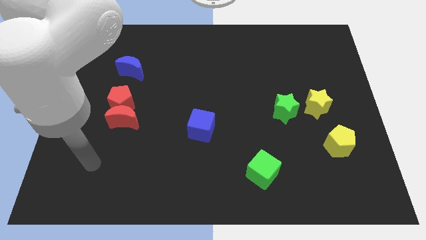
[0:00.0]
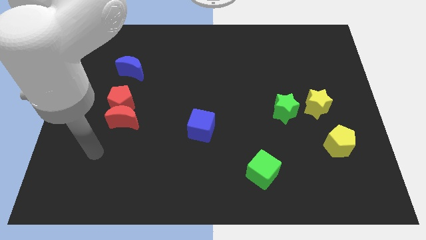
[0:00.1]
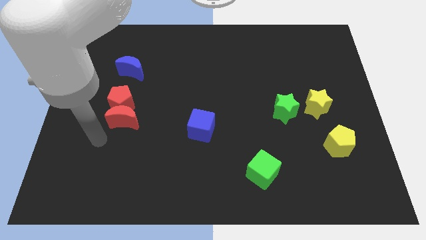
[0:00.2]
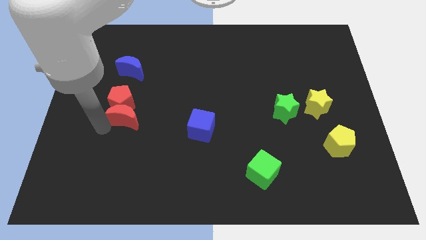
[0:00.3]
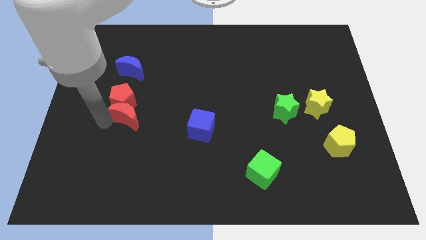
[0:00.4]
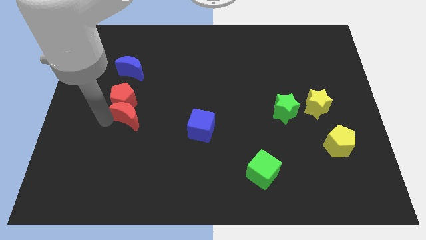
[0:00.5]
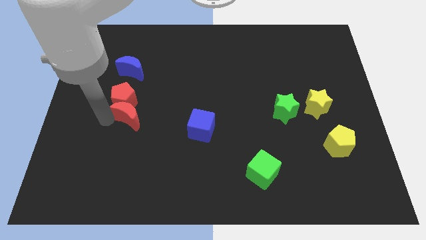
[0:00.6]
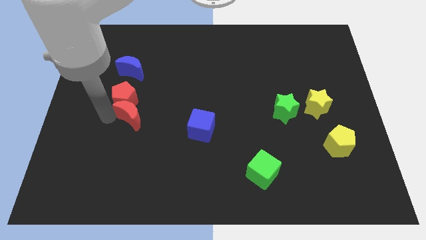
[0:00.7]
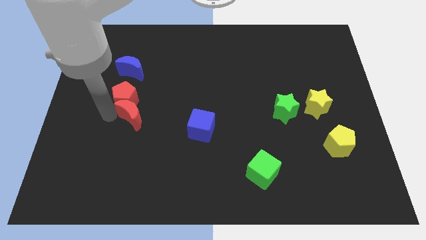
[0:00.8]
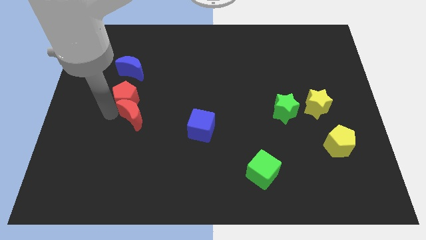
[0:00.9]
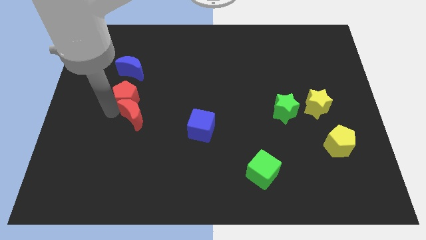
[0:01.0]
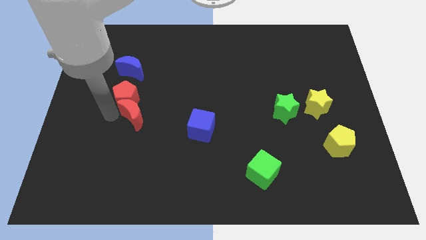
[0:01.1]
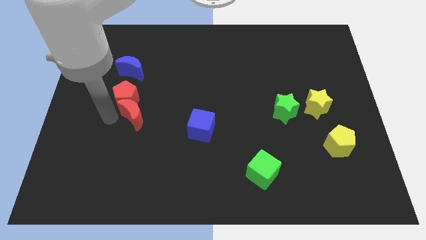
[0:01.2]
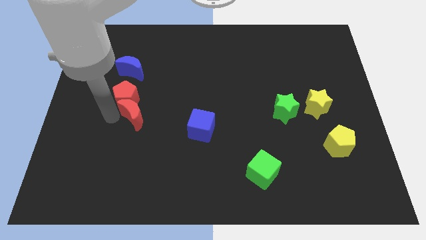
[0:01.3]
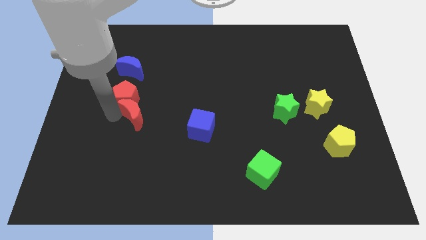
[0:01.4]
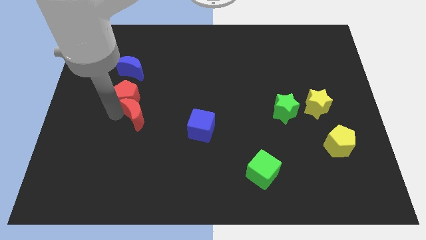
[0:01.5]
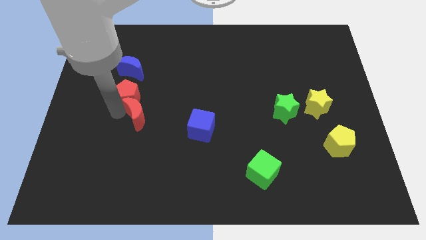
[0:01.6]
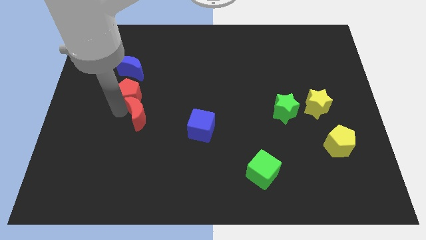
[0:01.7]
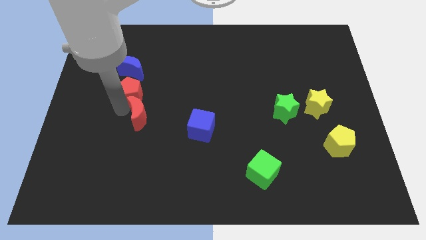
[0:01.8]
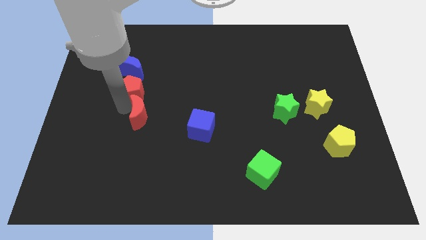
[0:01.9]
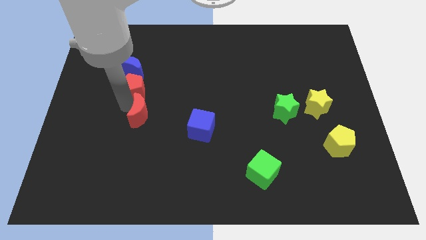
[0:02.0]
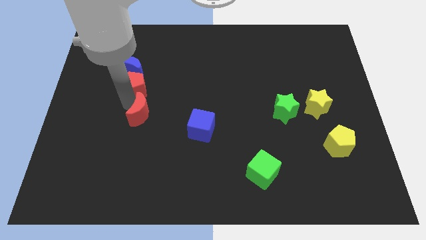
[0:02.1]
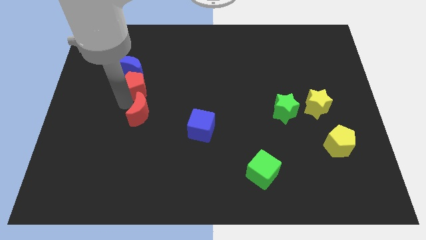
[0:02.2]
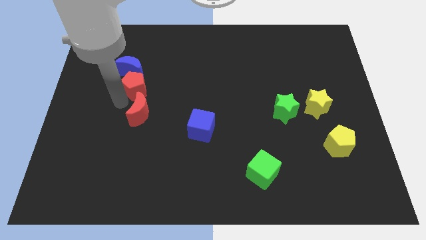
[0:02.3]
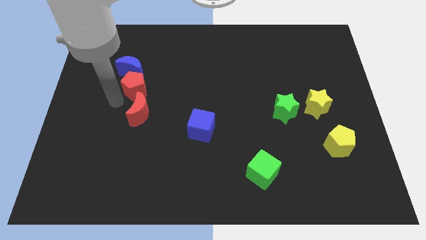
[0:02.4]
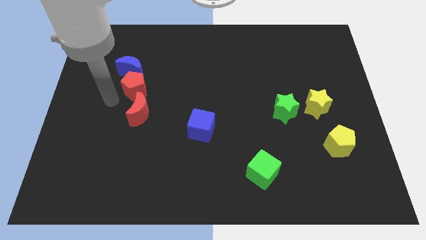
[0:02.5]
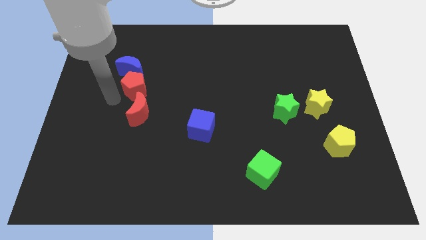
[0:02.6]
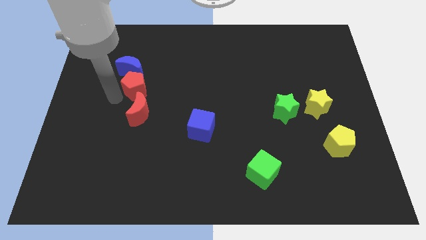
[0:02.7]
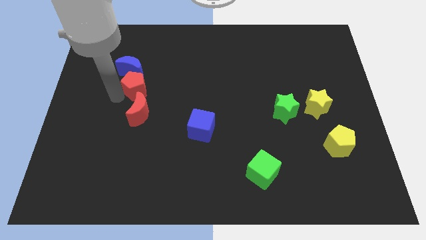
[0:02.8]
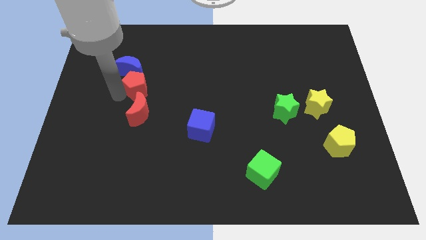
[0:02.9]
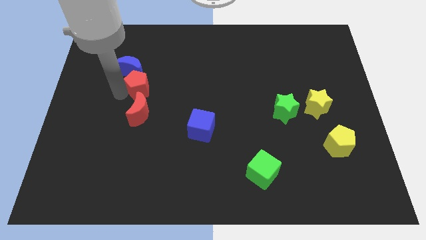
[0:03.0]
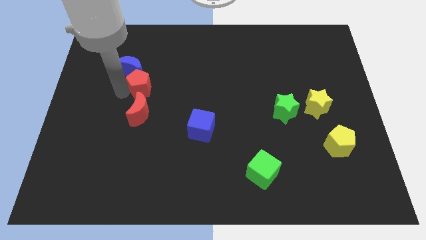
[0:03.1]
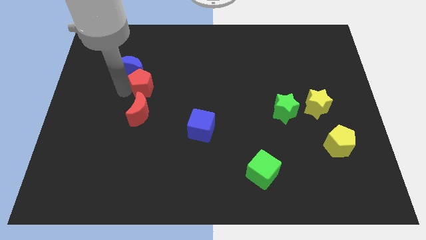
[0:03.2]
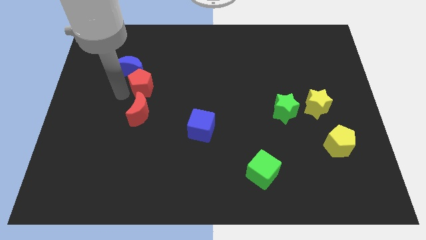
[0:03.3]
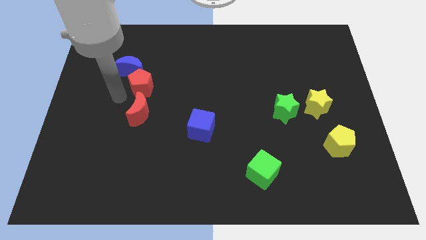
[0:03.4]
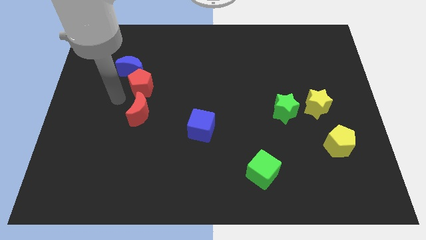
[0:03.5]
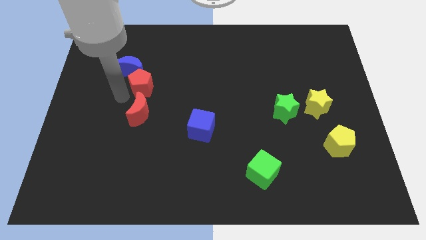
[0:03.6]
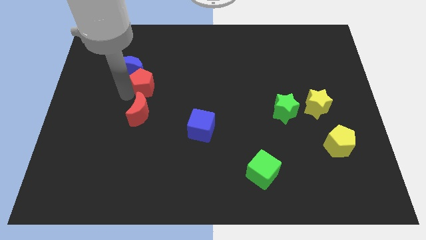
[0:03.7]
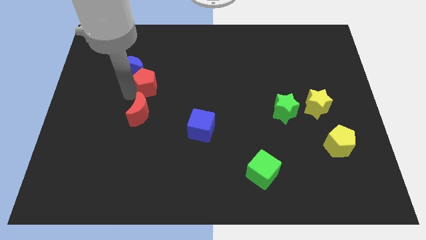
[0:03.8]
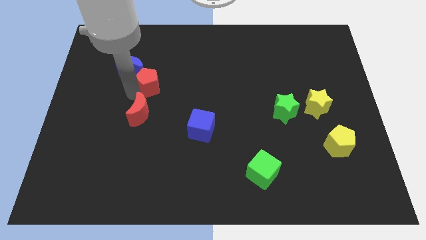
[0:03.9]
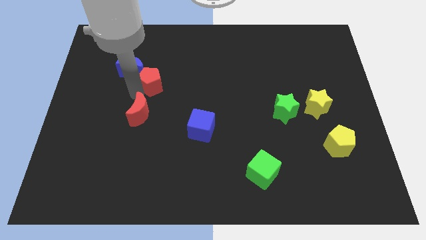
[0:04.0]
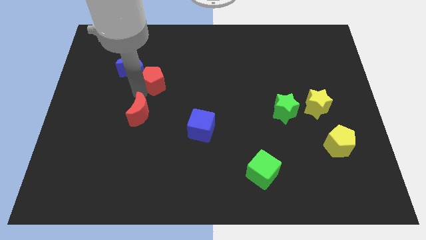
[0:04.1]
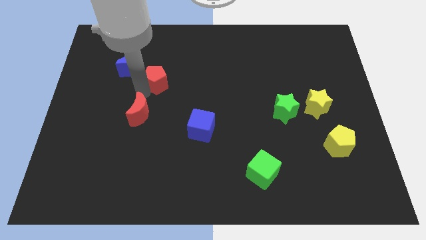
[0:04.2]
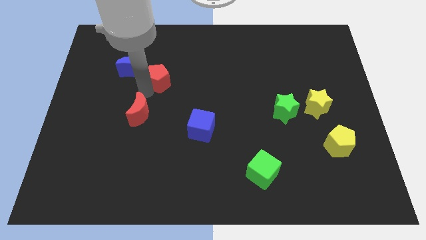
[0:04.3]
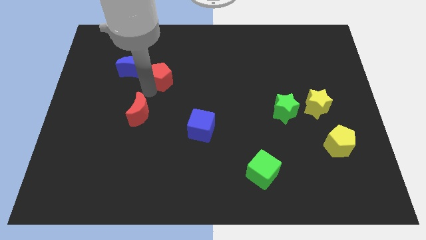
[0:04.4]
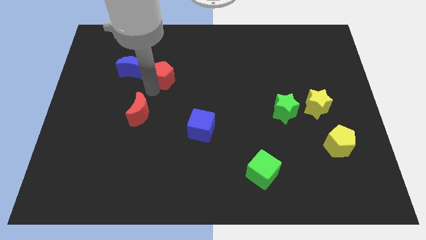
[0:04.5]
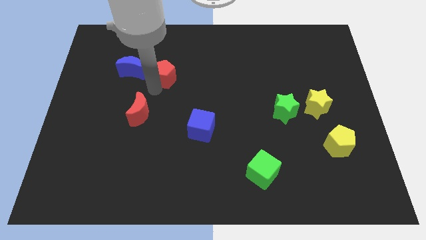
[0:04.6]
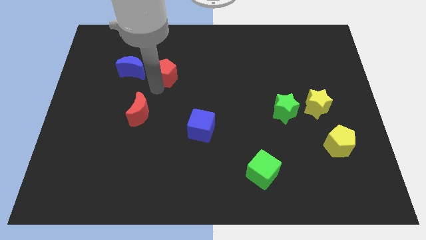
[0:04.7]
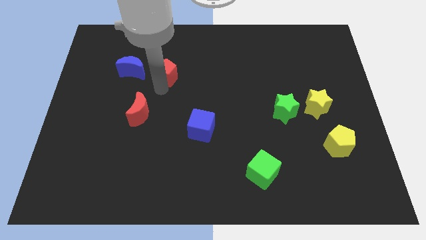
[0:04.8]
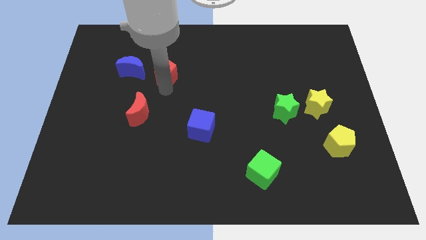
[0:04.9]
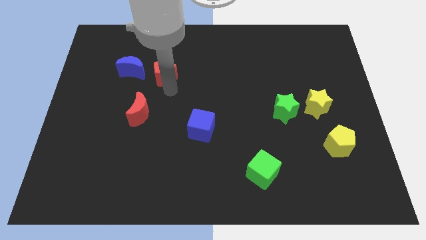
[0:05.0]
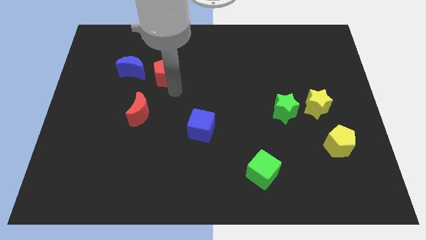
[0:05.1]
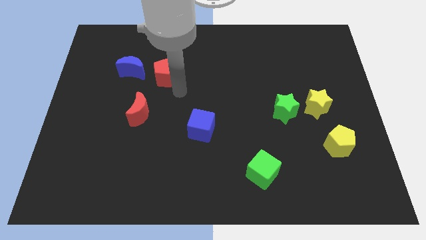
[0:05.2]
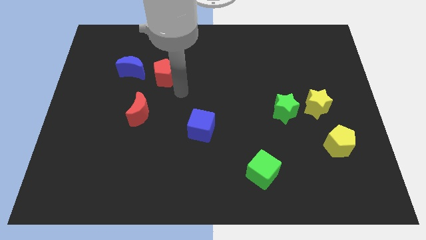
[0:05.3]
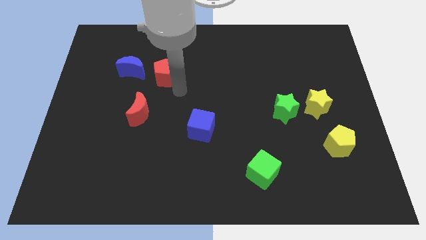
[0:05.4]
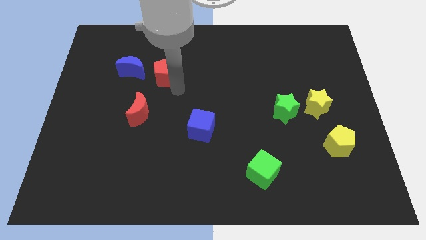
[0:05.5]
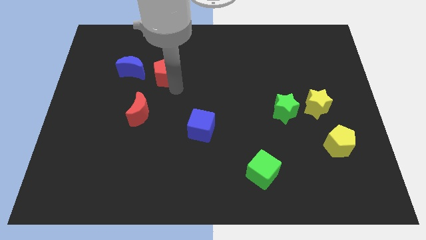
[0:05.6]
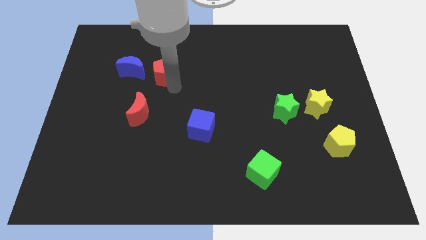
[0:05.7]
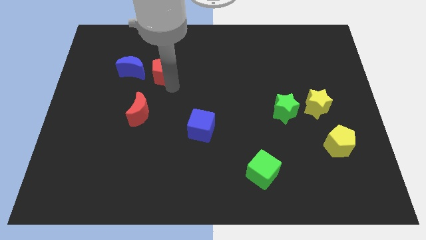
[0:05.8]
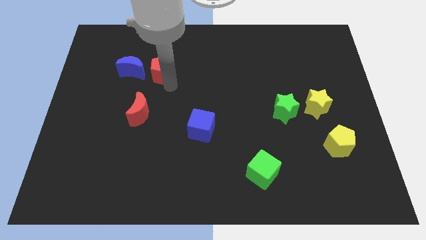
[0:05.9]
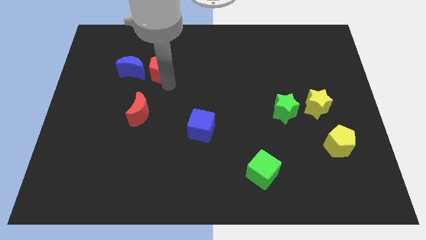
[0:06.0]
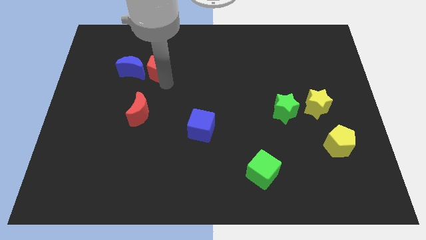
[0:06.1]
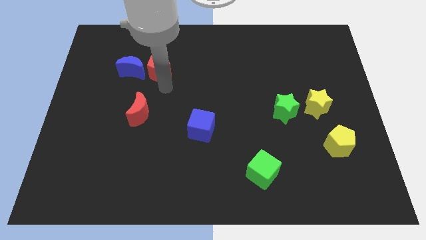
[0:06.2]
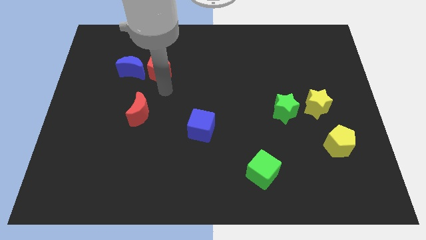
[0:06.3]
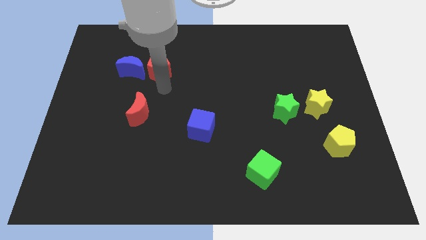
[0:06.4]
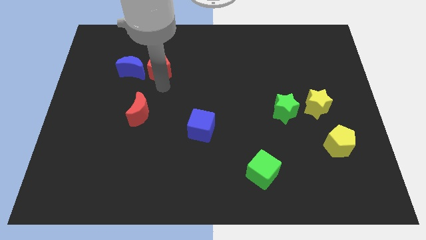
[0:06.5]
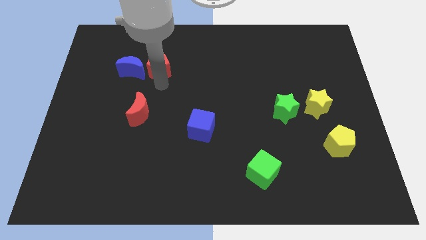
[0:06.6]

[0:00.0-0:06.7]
put the red pentagon to the top right of the blue moon

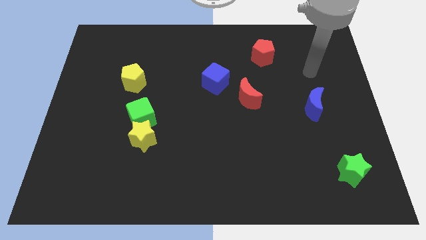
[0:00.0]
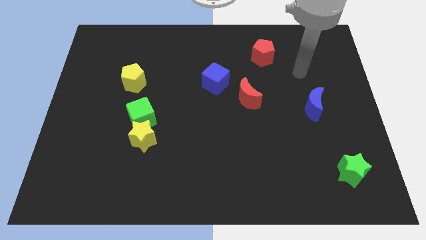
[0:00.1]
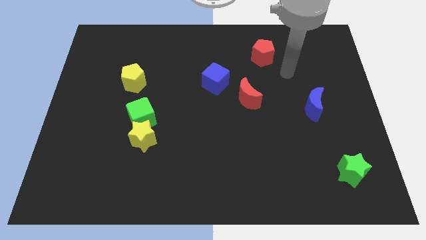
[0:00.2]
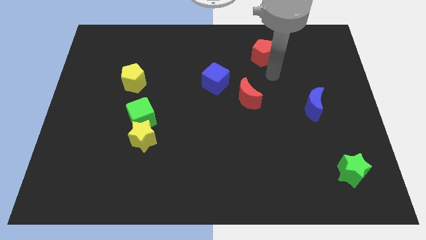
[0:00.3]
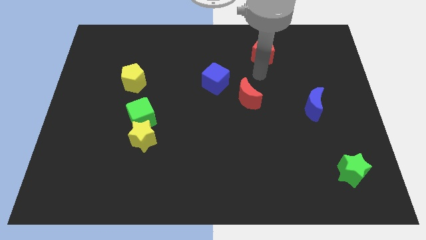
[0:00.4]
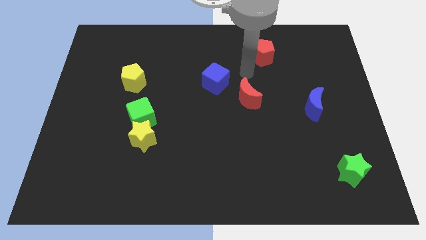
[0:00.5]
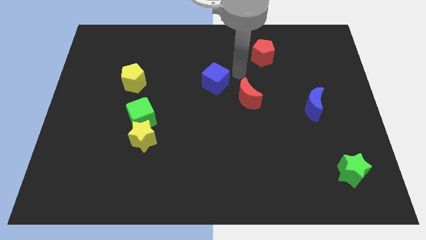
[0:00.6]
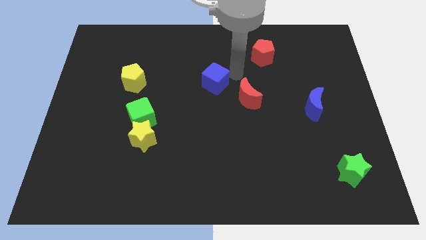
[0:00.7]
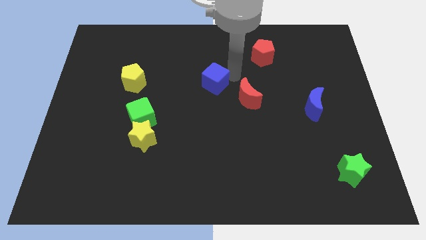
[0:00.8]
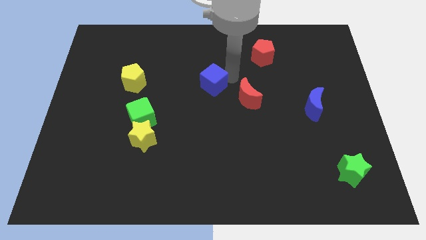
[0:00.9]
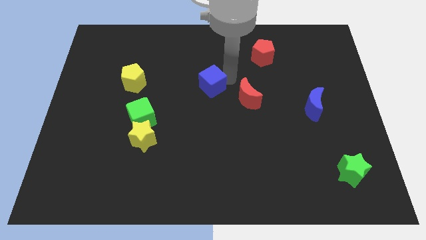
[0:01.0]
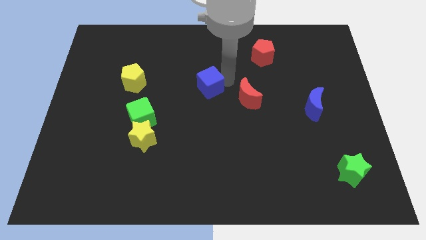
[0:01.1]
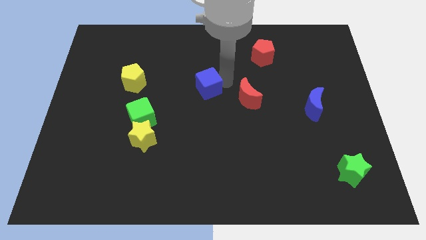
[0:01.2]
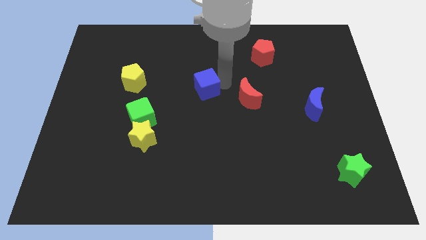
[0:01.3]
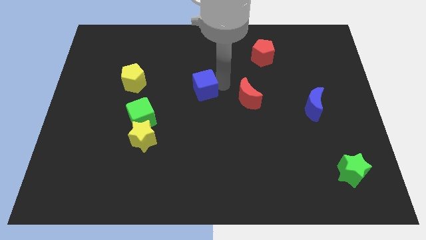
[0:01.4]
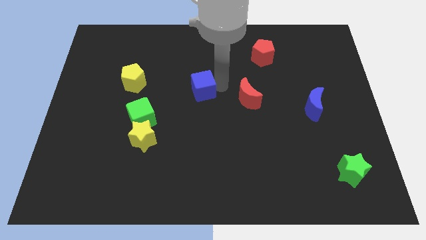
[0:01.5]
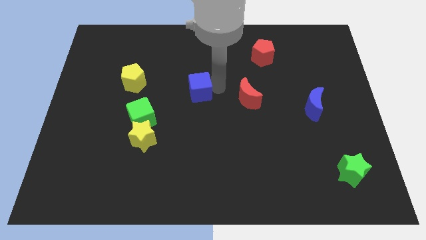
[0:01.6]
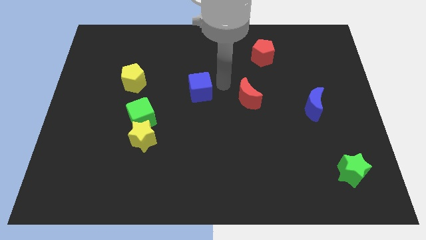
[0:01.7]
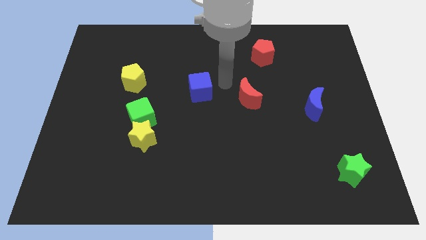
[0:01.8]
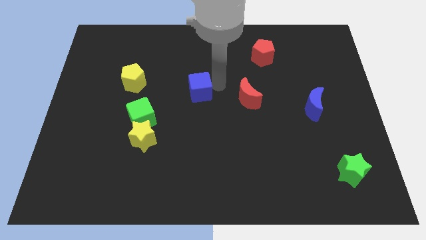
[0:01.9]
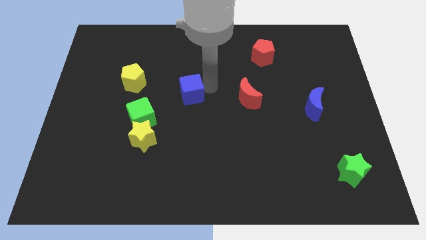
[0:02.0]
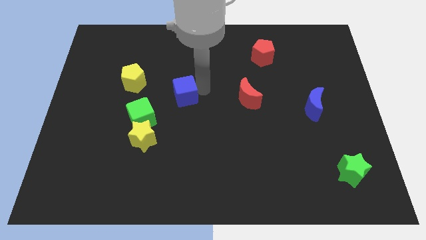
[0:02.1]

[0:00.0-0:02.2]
slide the blue cube to the top right of the green cube
